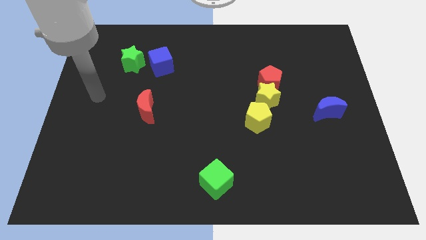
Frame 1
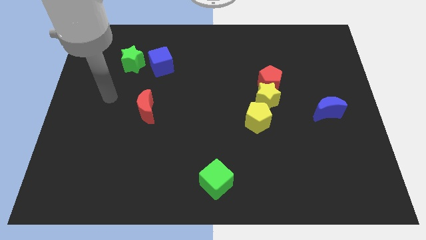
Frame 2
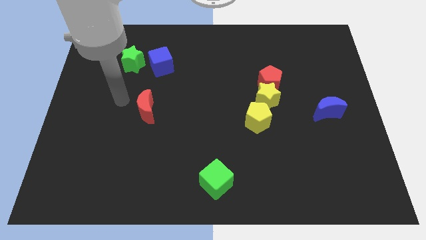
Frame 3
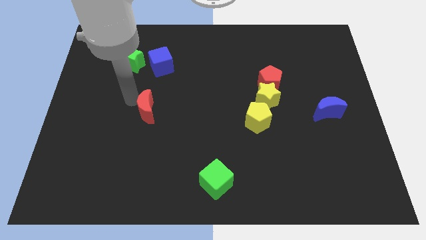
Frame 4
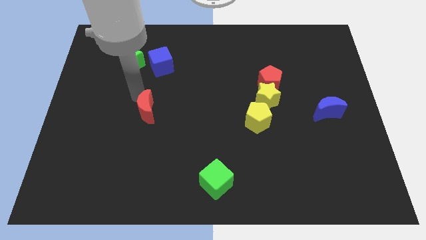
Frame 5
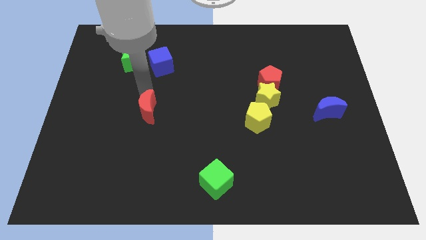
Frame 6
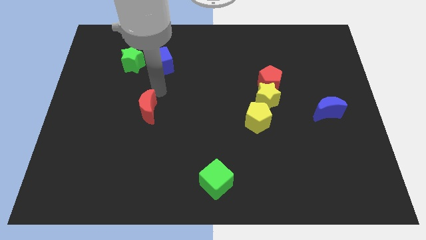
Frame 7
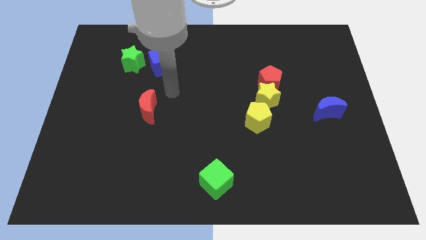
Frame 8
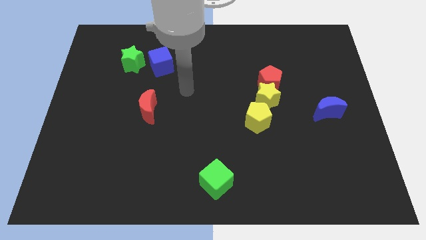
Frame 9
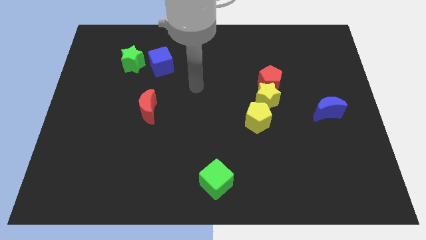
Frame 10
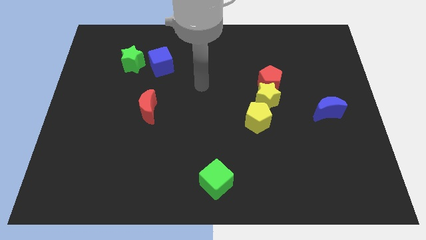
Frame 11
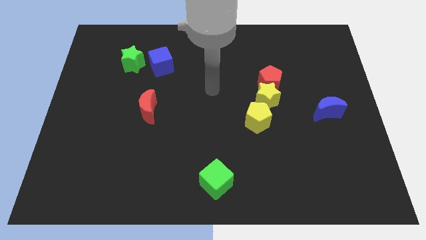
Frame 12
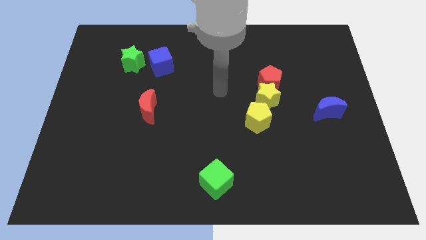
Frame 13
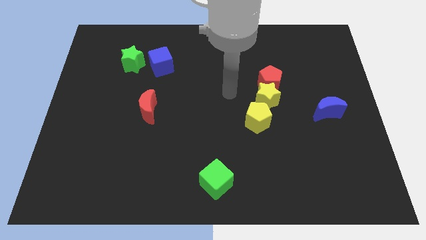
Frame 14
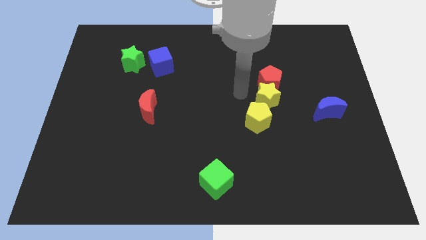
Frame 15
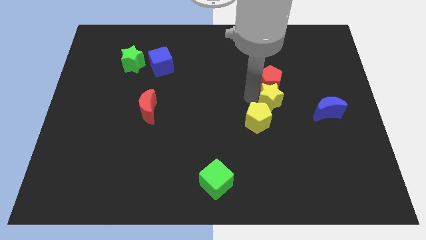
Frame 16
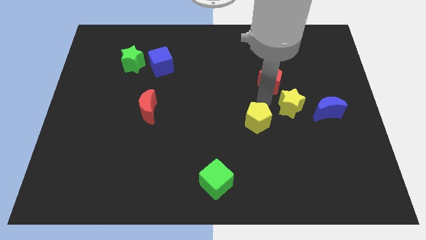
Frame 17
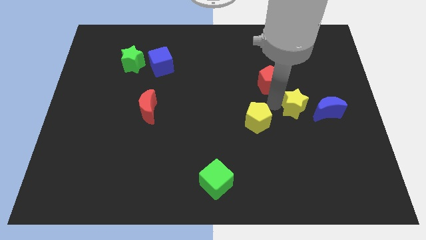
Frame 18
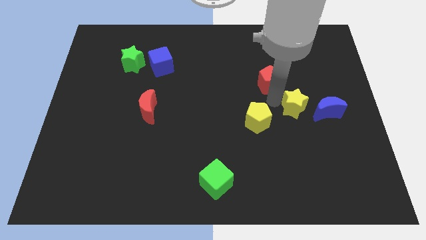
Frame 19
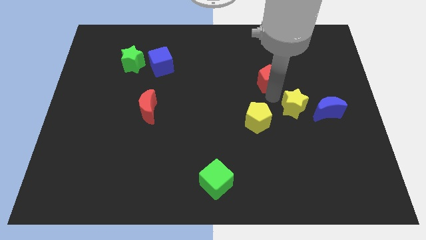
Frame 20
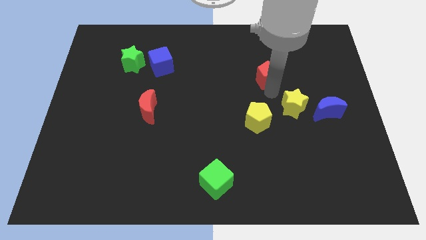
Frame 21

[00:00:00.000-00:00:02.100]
move the red pentagon away from the yellow star

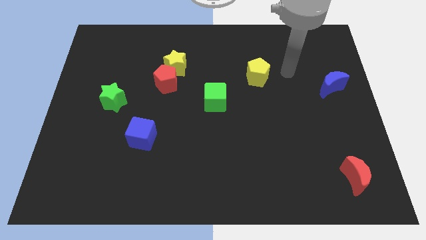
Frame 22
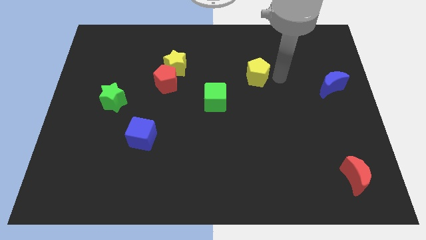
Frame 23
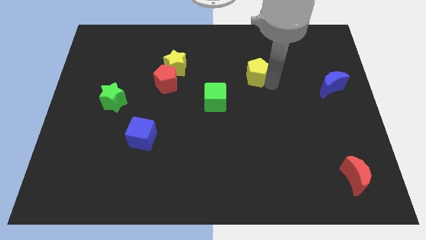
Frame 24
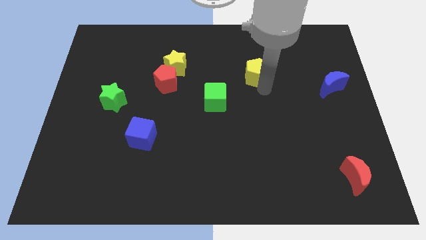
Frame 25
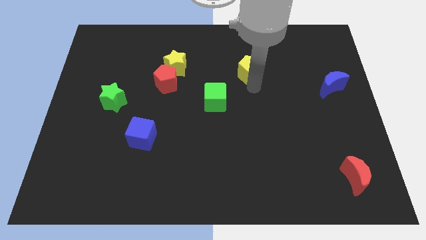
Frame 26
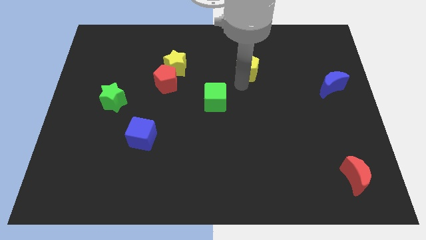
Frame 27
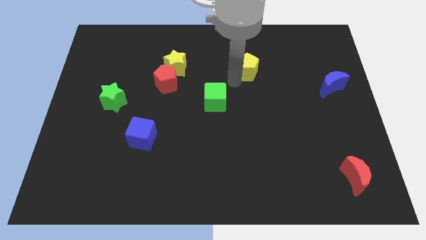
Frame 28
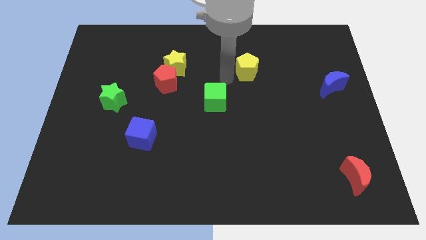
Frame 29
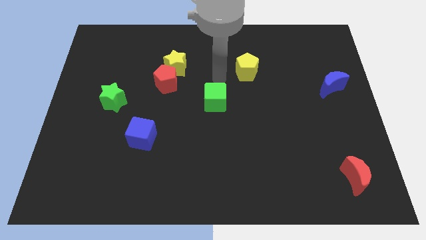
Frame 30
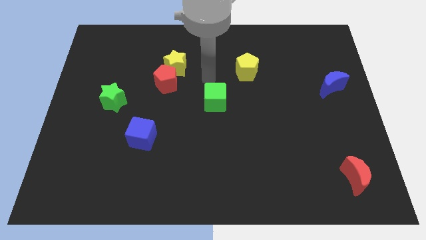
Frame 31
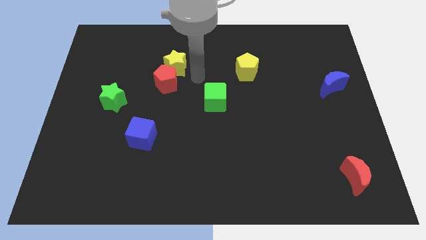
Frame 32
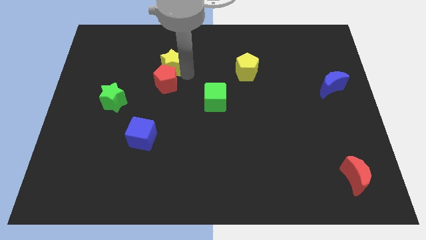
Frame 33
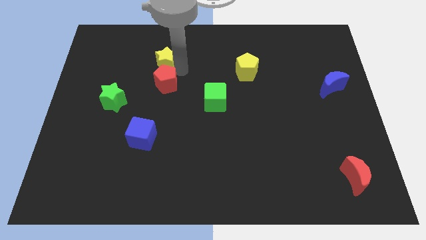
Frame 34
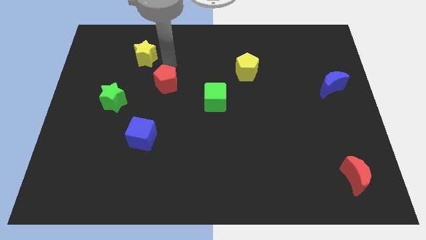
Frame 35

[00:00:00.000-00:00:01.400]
pull the red pentagon apart from the yellow star

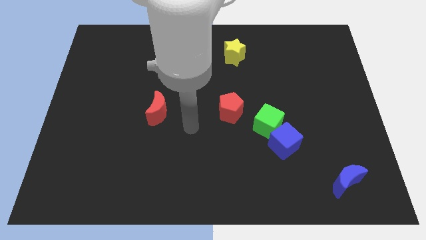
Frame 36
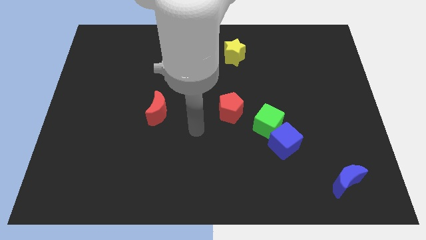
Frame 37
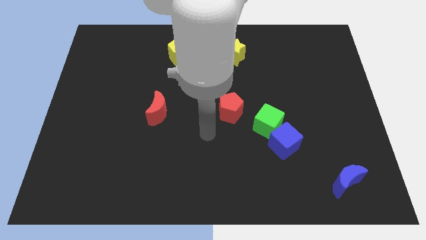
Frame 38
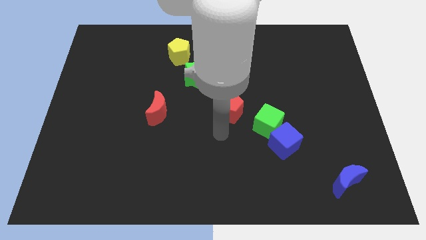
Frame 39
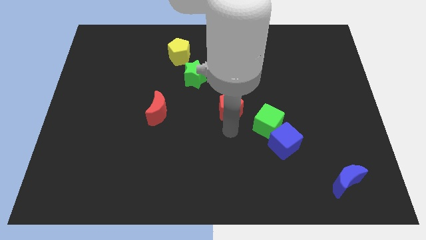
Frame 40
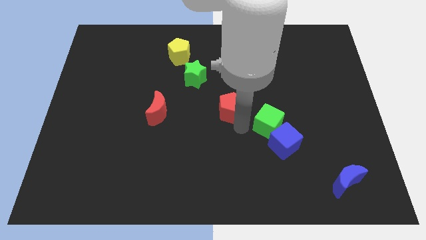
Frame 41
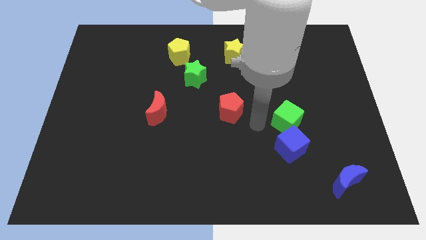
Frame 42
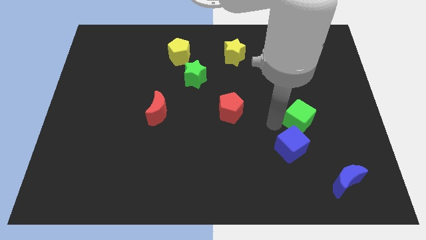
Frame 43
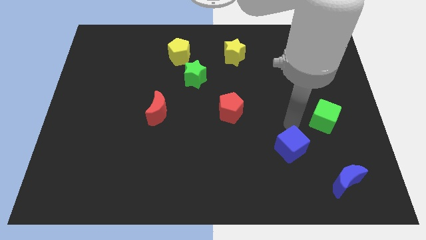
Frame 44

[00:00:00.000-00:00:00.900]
move the blue cube away from the green cube

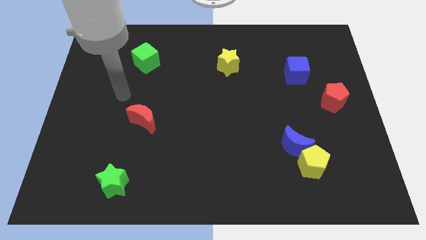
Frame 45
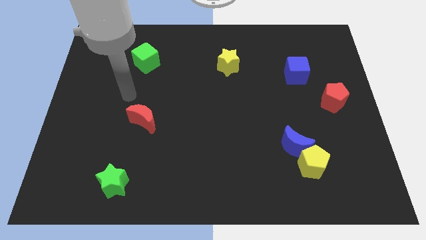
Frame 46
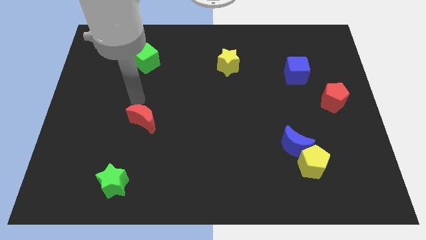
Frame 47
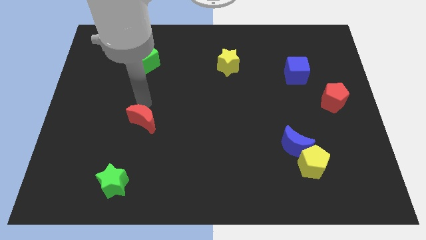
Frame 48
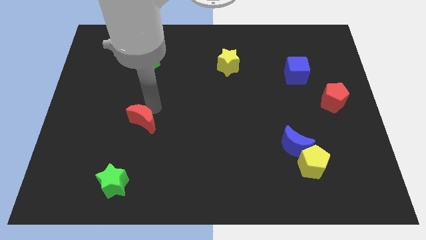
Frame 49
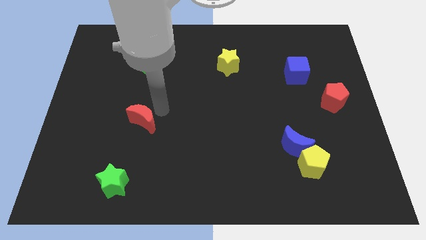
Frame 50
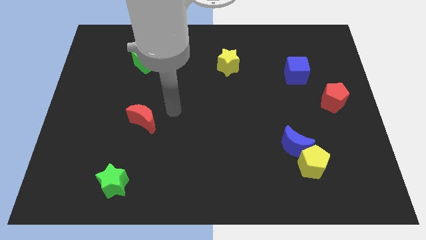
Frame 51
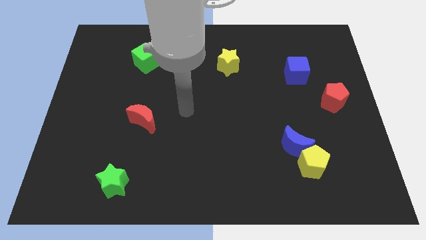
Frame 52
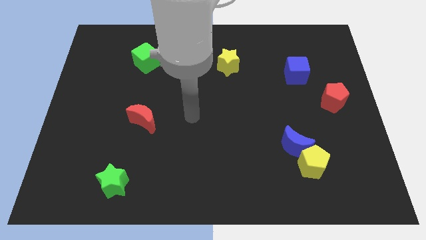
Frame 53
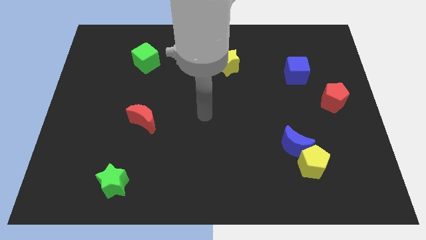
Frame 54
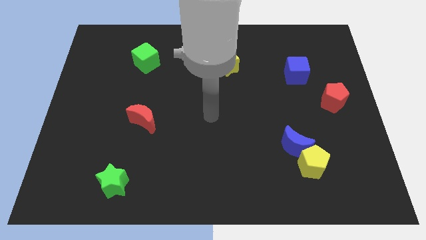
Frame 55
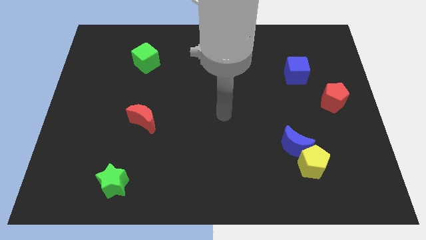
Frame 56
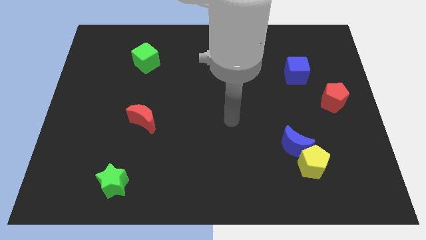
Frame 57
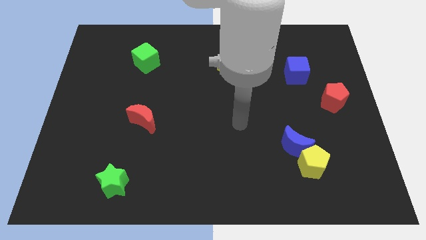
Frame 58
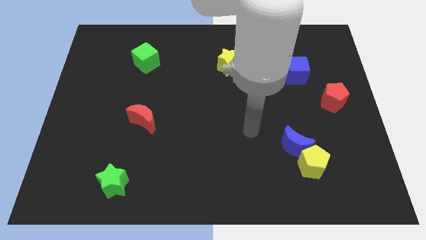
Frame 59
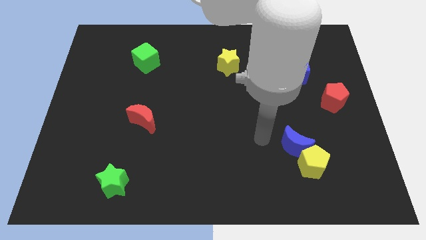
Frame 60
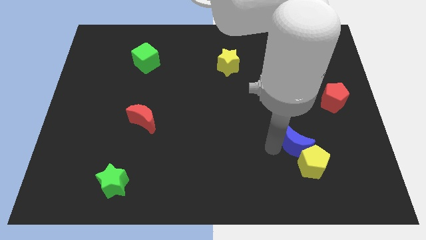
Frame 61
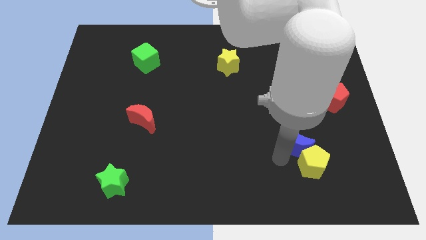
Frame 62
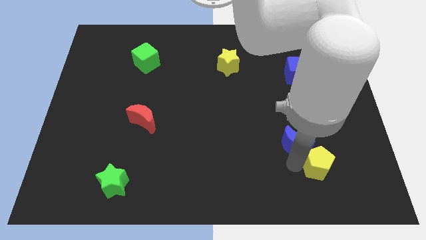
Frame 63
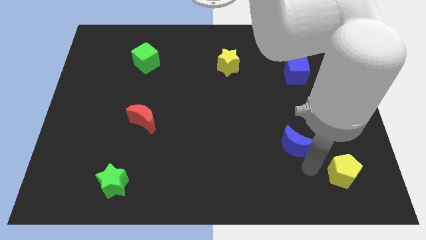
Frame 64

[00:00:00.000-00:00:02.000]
move the blue moon away from the yellow pentagon

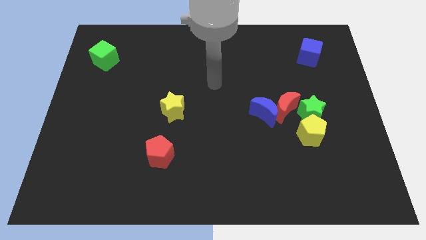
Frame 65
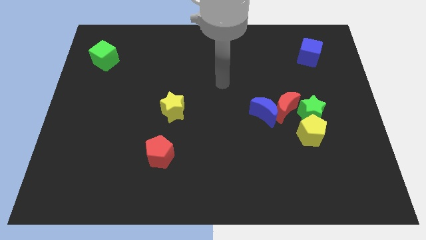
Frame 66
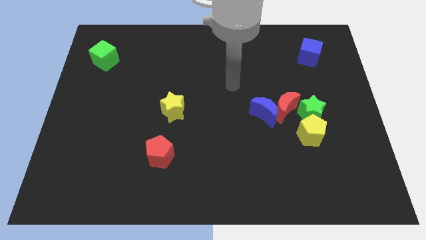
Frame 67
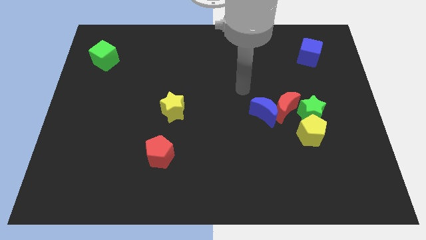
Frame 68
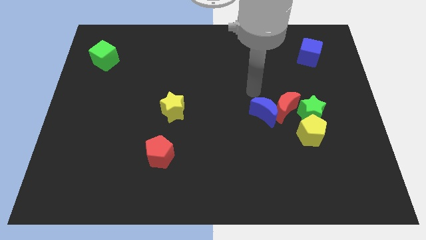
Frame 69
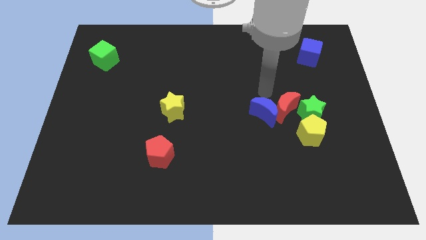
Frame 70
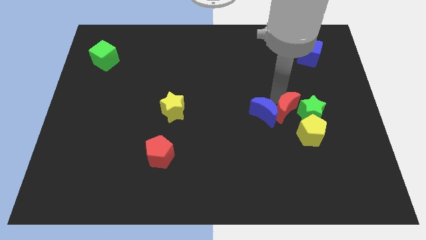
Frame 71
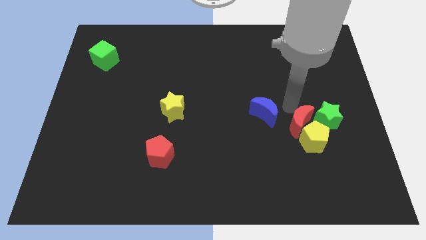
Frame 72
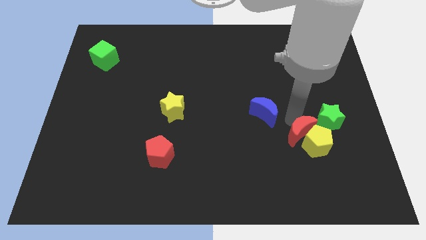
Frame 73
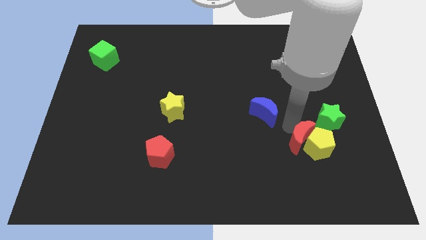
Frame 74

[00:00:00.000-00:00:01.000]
separate the blue moon from the red moon

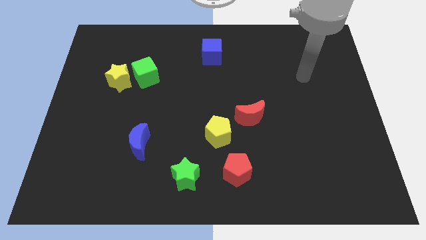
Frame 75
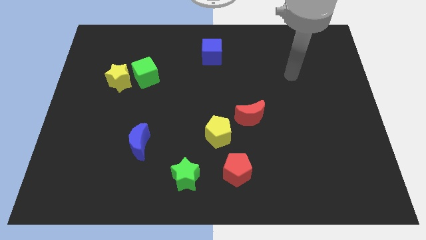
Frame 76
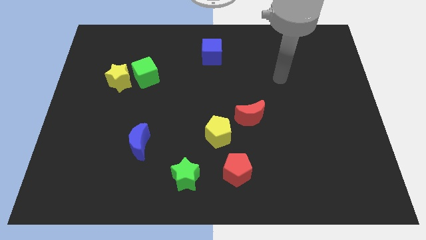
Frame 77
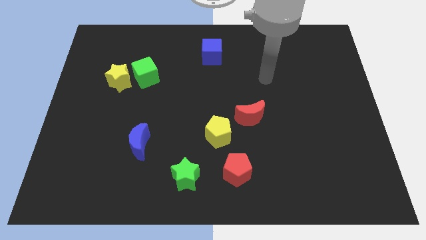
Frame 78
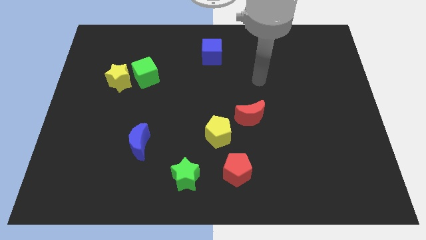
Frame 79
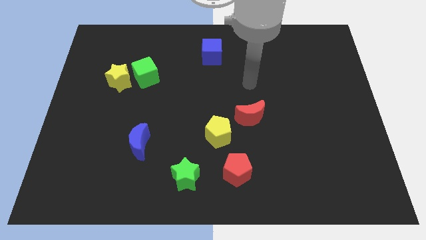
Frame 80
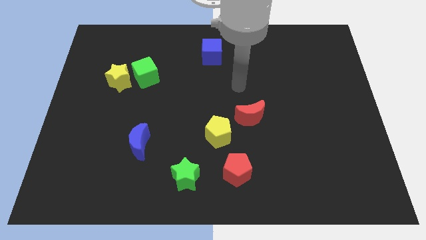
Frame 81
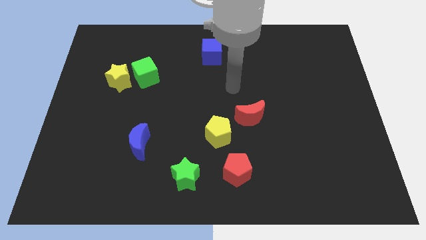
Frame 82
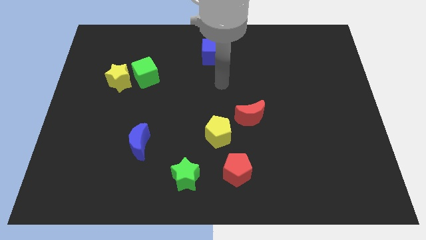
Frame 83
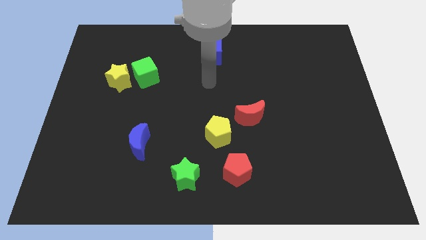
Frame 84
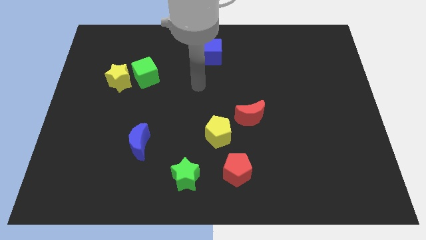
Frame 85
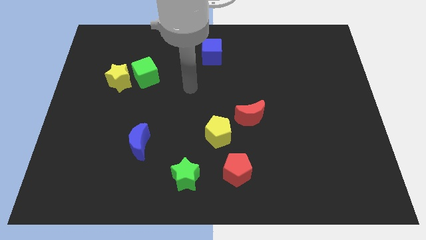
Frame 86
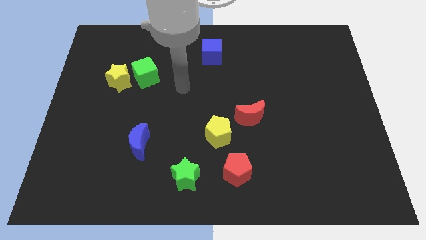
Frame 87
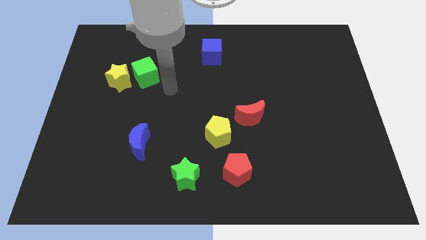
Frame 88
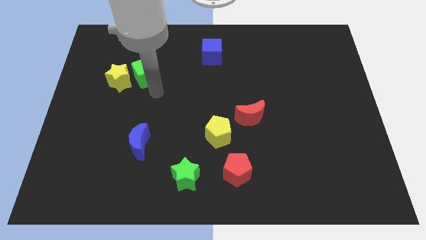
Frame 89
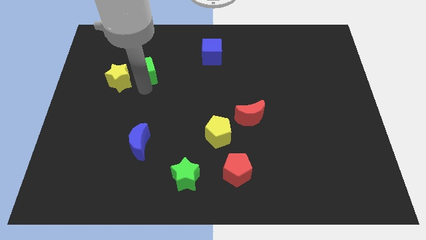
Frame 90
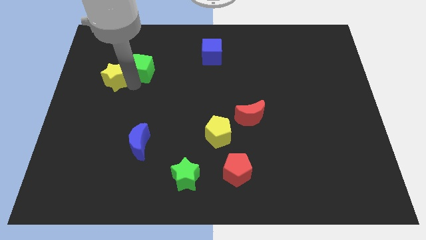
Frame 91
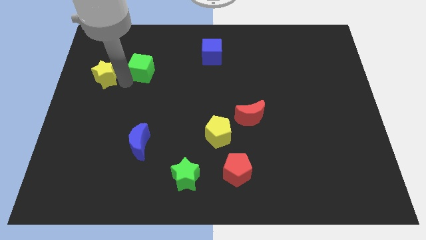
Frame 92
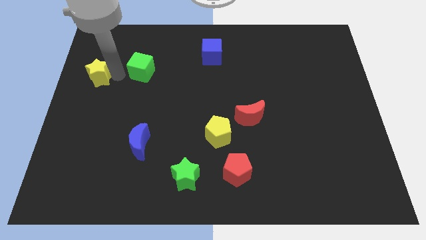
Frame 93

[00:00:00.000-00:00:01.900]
pull the green cube apart from the yellow star
